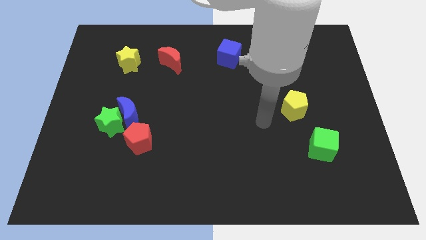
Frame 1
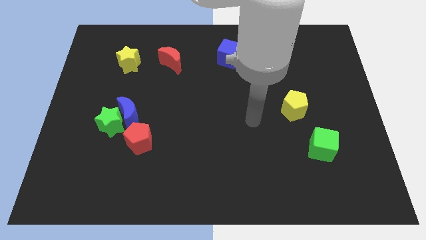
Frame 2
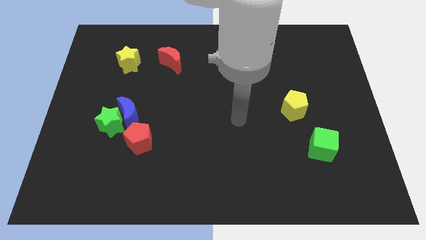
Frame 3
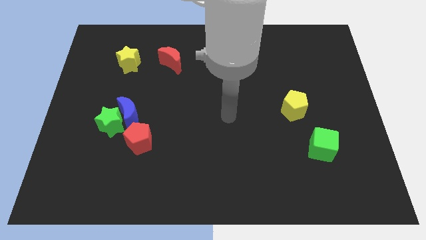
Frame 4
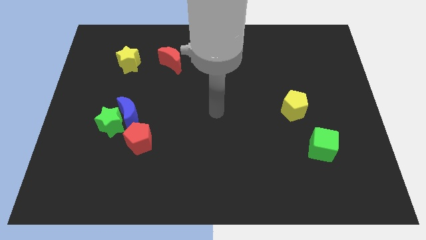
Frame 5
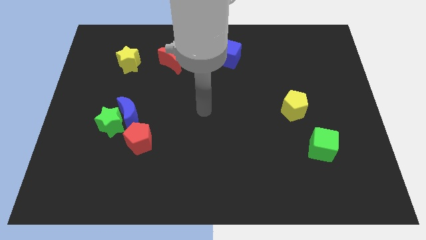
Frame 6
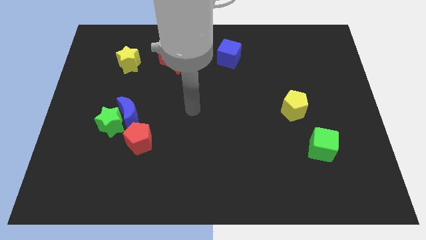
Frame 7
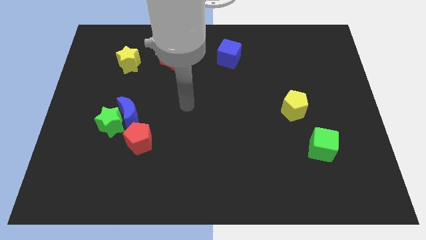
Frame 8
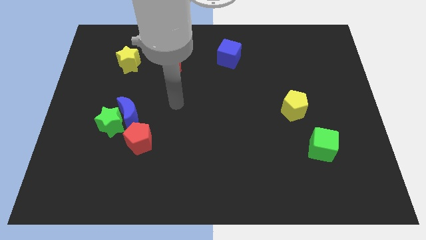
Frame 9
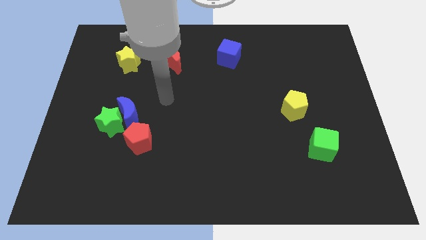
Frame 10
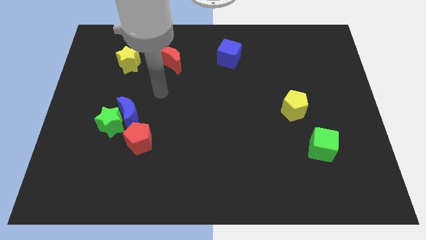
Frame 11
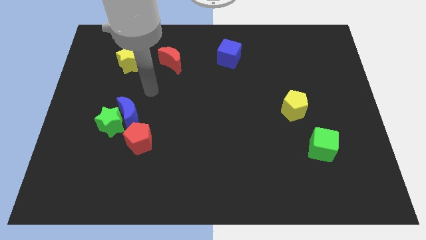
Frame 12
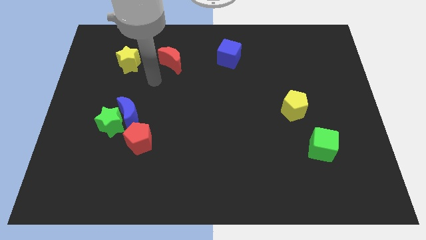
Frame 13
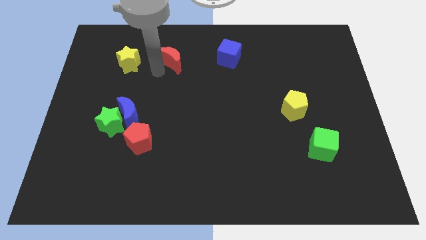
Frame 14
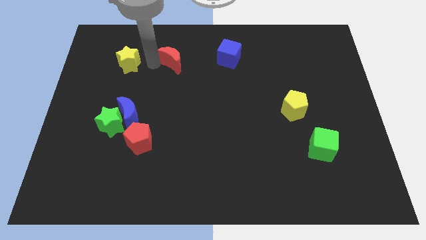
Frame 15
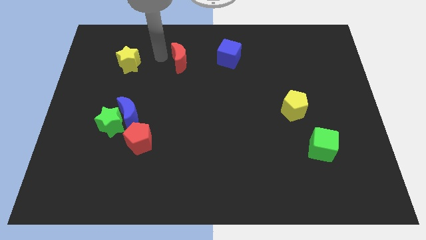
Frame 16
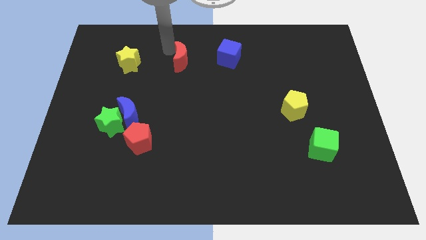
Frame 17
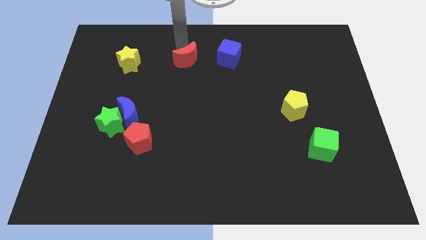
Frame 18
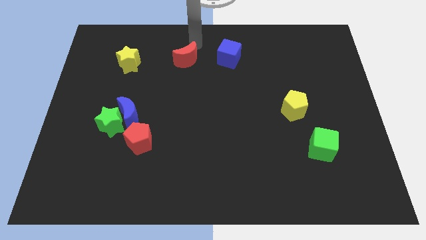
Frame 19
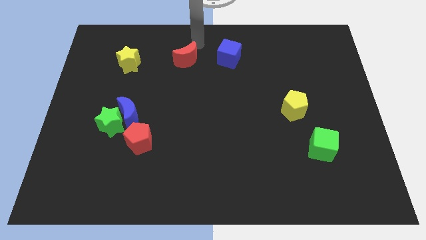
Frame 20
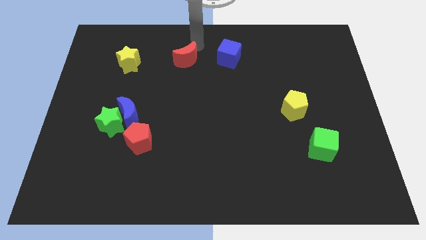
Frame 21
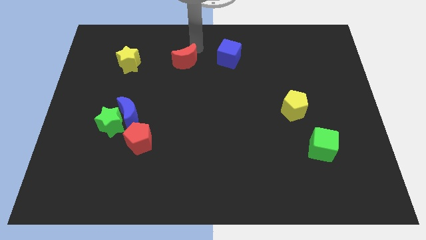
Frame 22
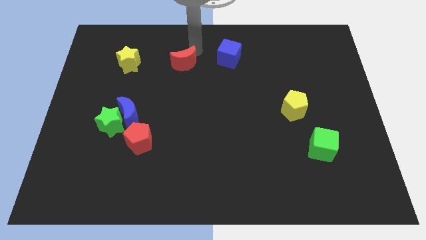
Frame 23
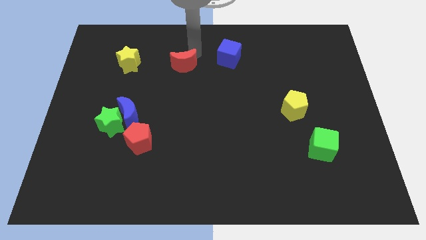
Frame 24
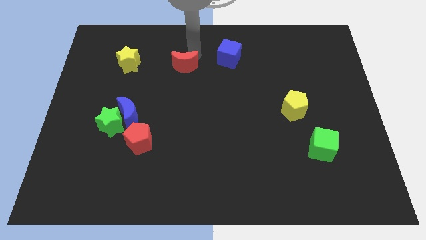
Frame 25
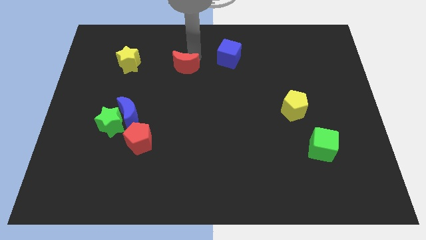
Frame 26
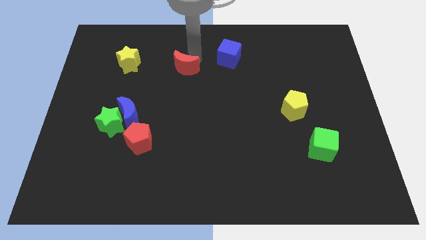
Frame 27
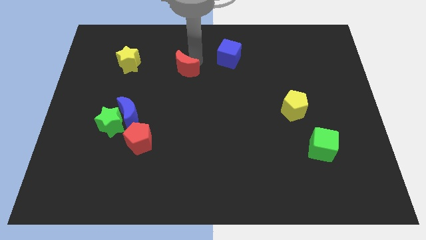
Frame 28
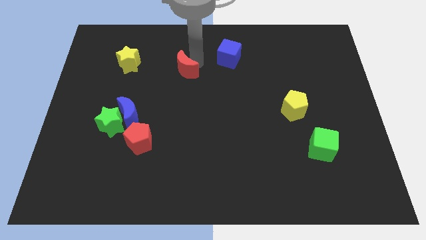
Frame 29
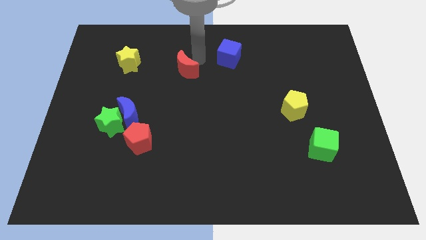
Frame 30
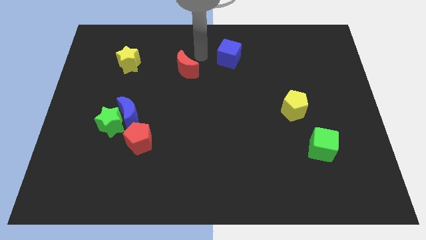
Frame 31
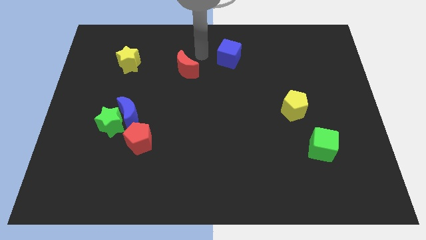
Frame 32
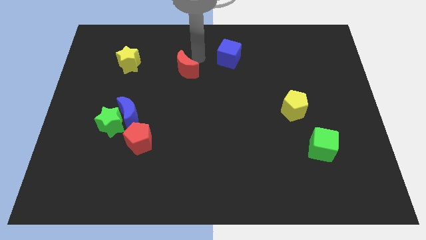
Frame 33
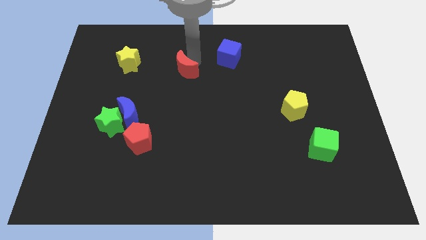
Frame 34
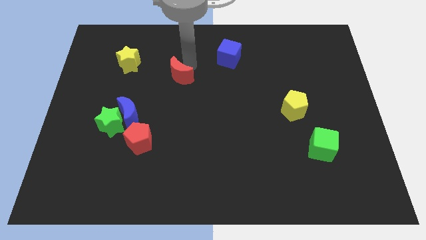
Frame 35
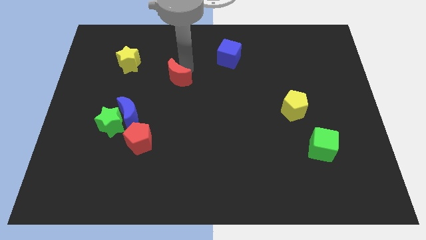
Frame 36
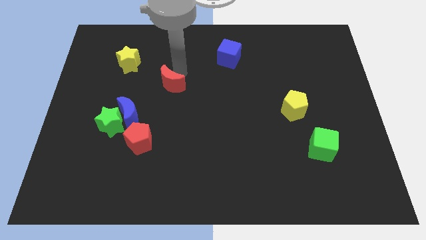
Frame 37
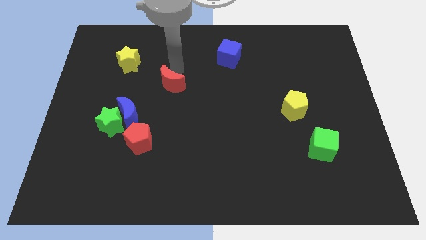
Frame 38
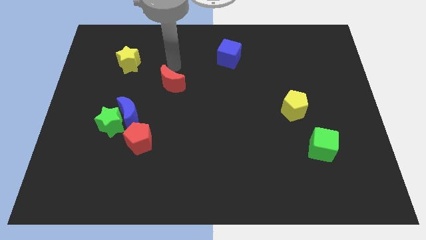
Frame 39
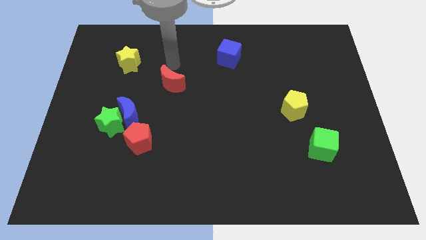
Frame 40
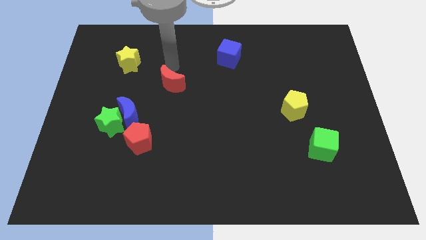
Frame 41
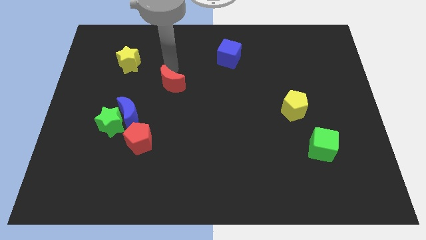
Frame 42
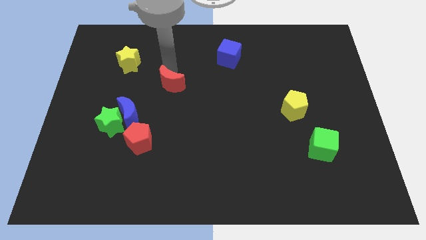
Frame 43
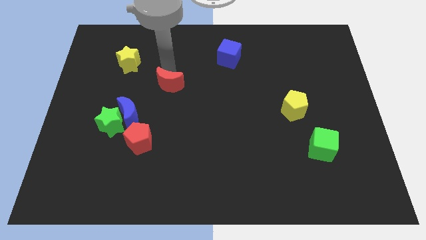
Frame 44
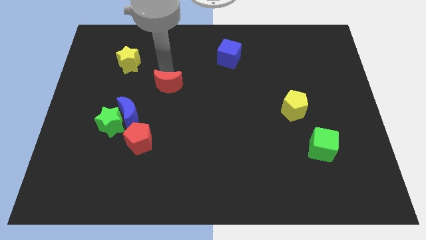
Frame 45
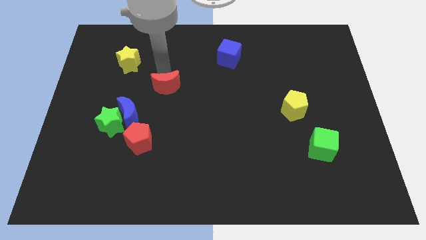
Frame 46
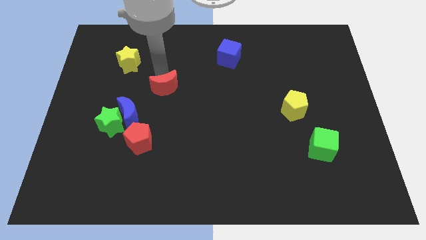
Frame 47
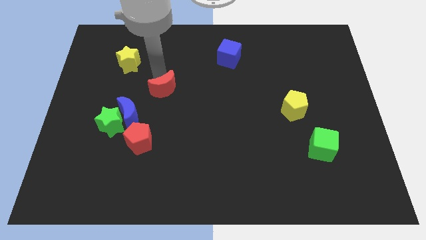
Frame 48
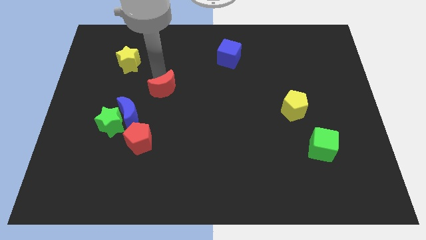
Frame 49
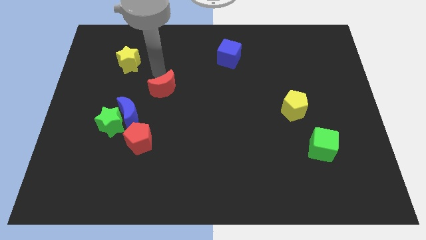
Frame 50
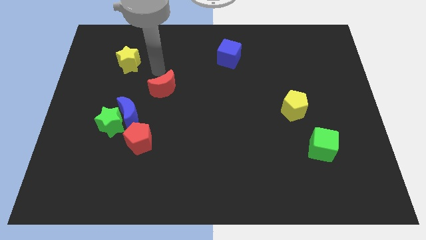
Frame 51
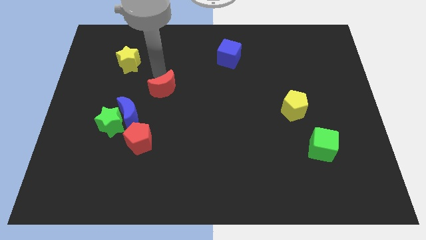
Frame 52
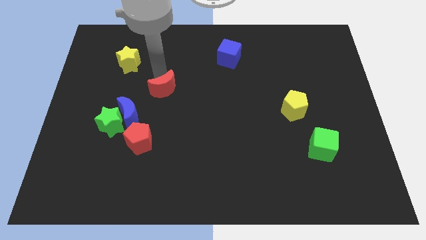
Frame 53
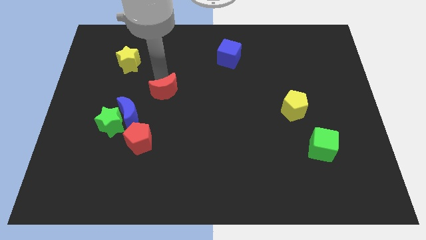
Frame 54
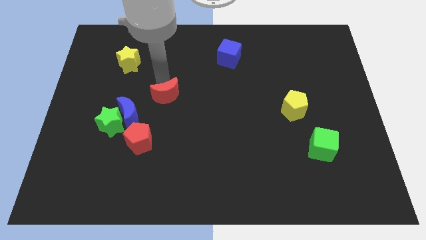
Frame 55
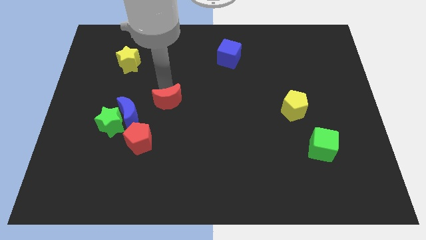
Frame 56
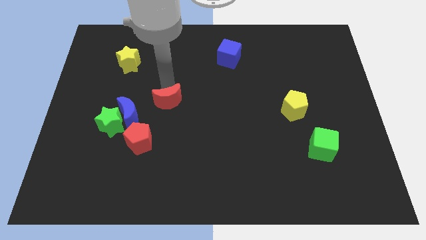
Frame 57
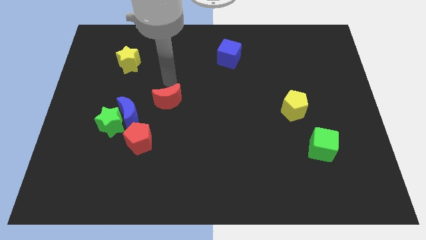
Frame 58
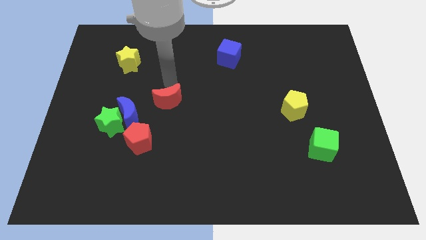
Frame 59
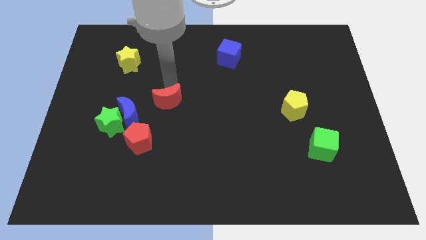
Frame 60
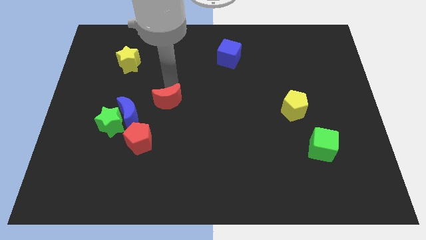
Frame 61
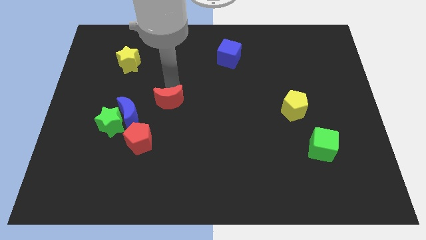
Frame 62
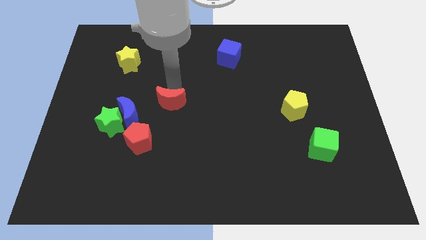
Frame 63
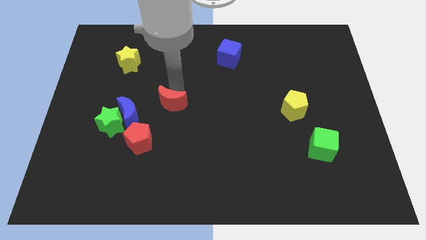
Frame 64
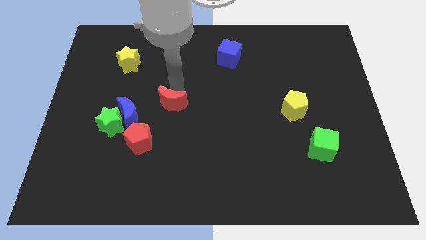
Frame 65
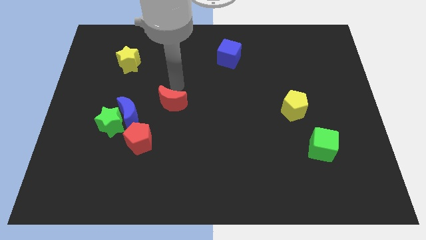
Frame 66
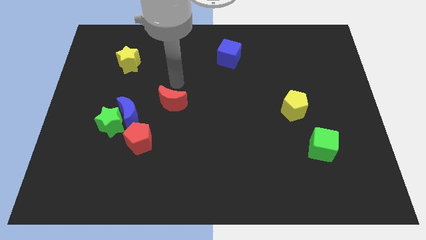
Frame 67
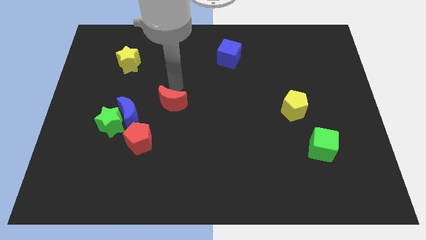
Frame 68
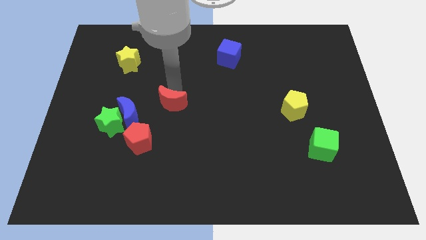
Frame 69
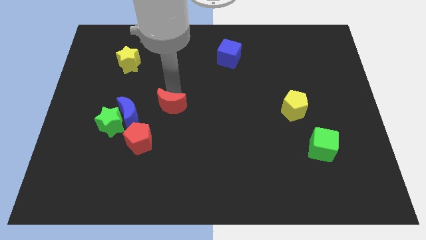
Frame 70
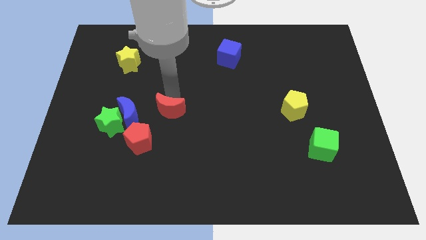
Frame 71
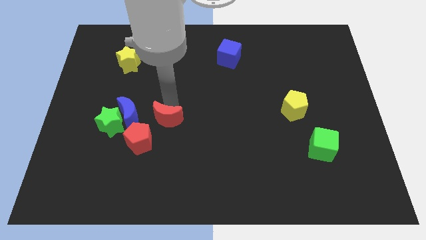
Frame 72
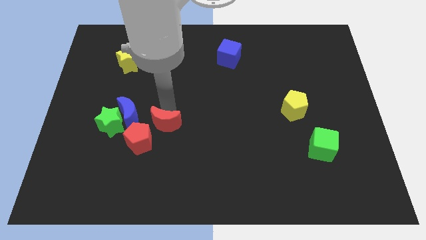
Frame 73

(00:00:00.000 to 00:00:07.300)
push the red moon downwards

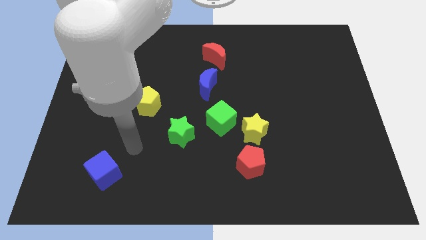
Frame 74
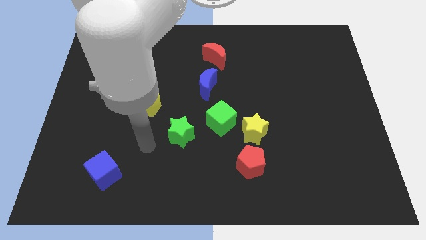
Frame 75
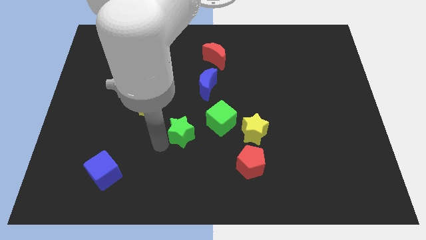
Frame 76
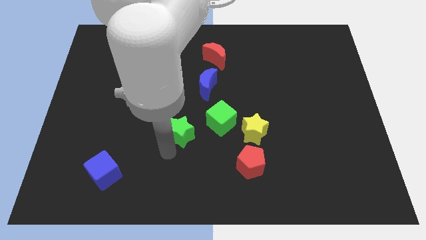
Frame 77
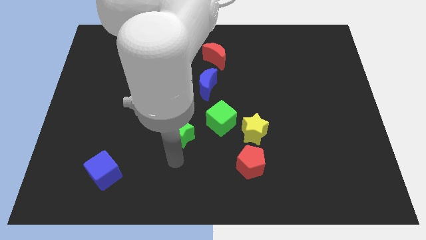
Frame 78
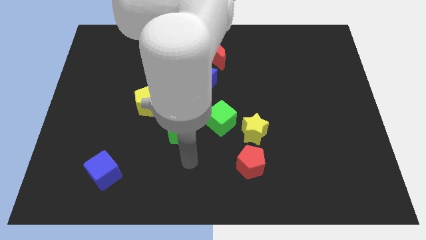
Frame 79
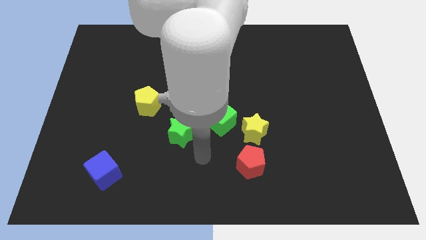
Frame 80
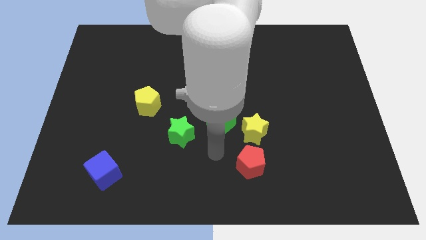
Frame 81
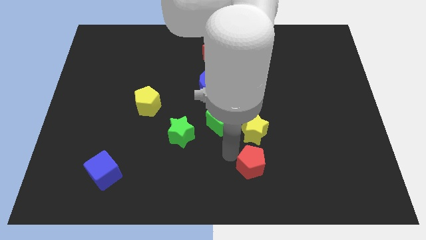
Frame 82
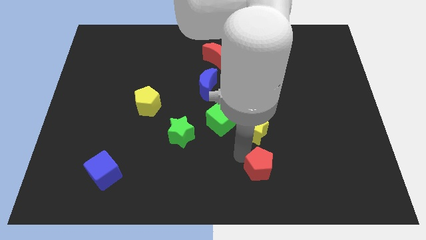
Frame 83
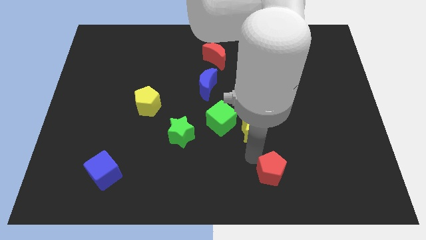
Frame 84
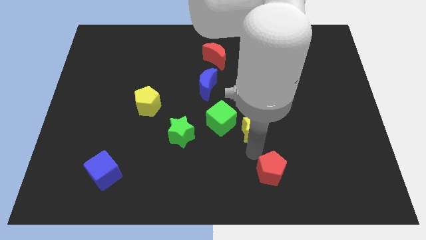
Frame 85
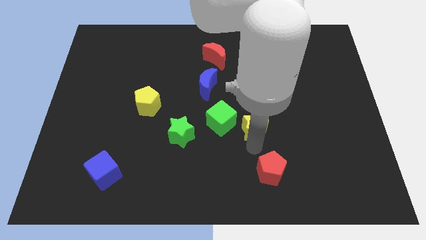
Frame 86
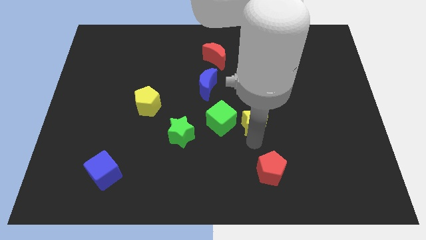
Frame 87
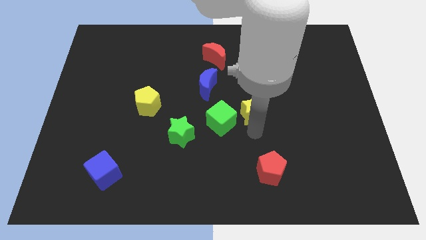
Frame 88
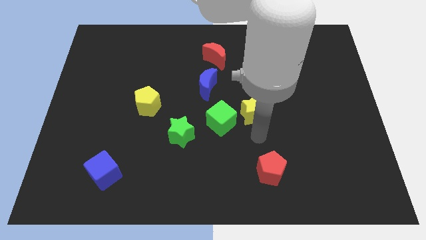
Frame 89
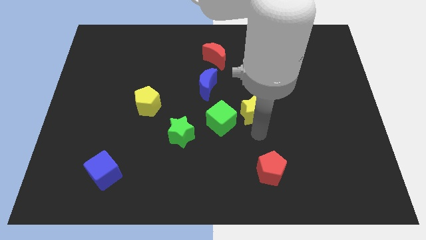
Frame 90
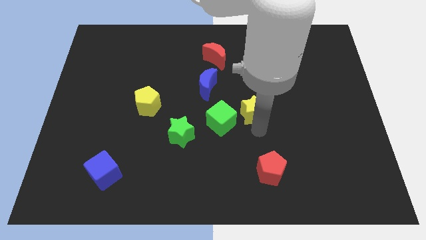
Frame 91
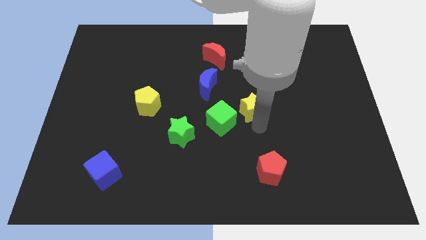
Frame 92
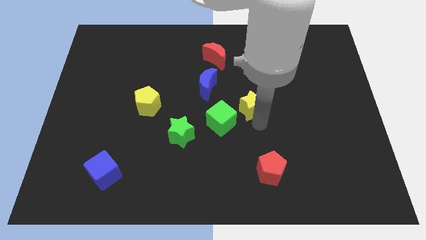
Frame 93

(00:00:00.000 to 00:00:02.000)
push the yellow star upwards a little bit
